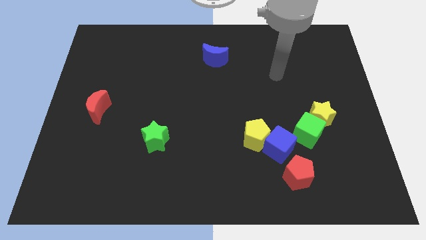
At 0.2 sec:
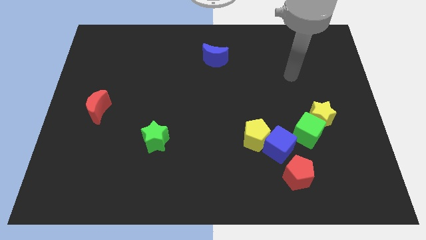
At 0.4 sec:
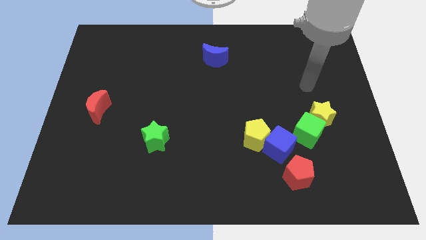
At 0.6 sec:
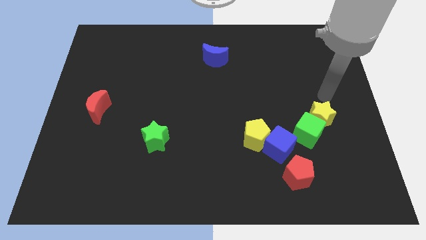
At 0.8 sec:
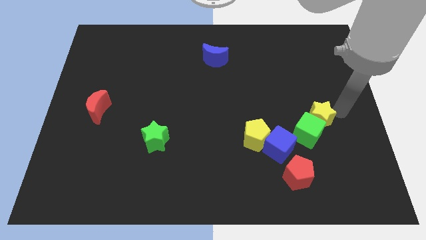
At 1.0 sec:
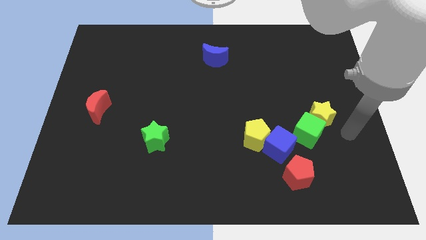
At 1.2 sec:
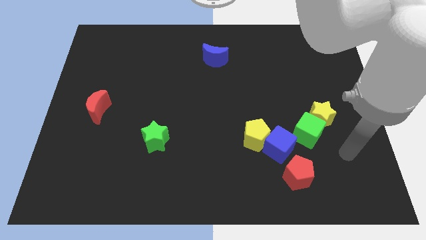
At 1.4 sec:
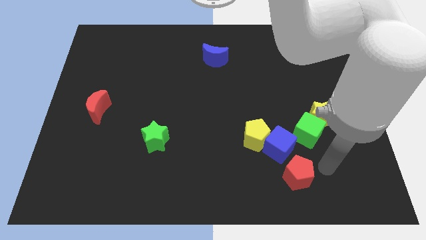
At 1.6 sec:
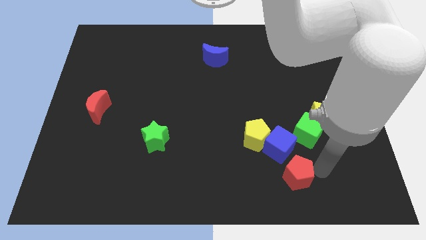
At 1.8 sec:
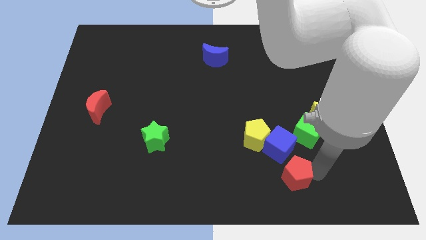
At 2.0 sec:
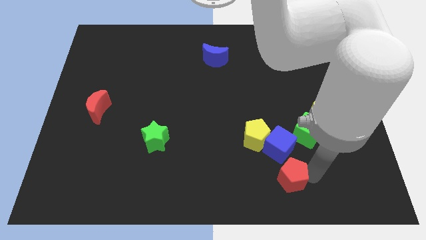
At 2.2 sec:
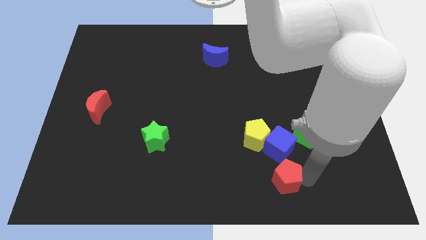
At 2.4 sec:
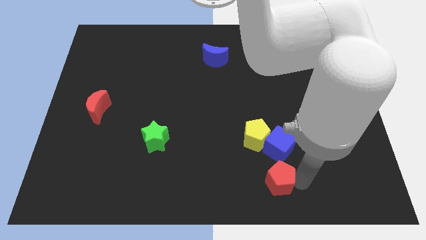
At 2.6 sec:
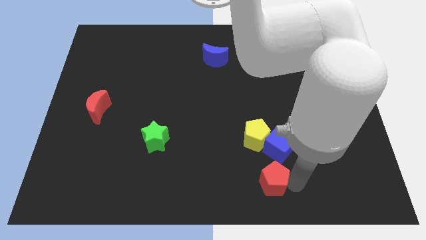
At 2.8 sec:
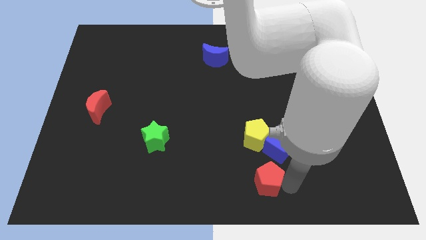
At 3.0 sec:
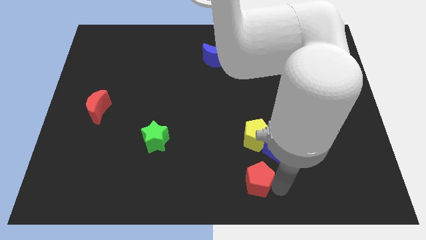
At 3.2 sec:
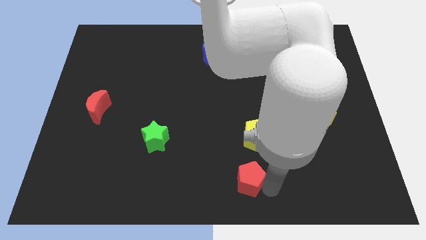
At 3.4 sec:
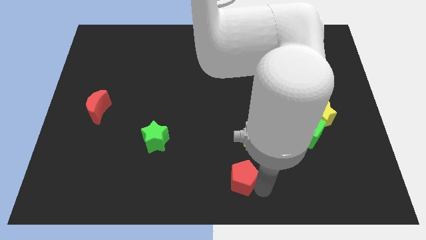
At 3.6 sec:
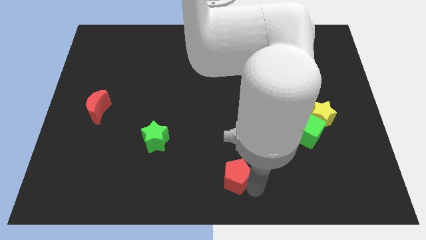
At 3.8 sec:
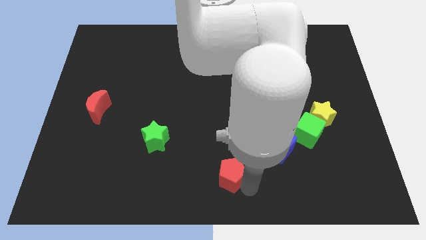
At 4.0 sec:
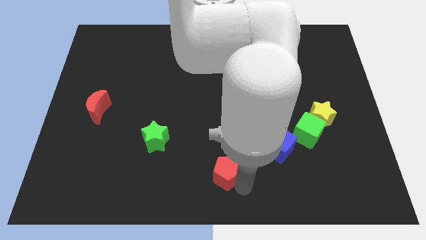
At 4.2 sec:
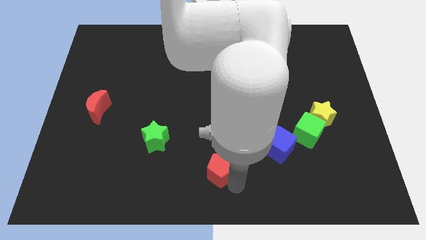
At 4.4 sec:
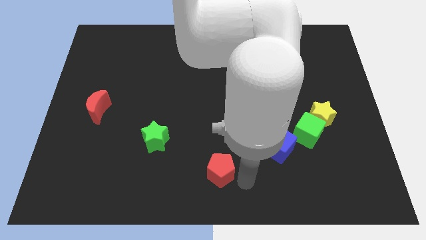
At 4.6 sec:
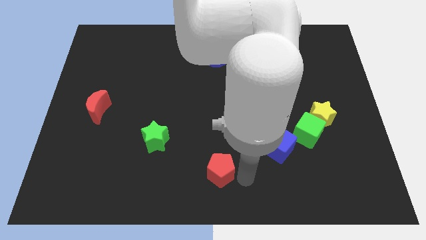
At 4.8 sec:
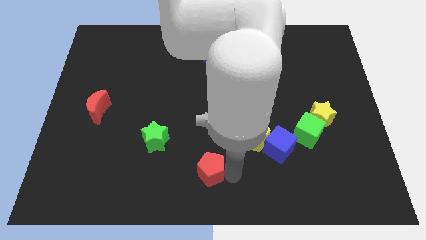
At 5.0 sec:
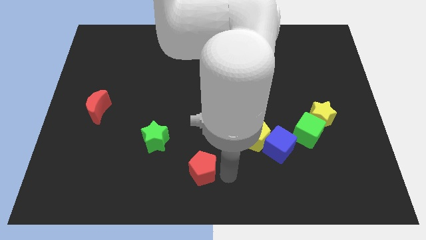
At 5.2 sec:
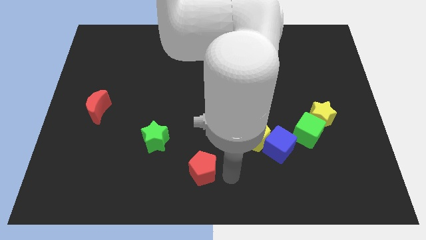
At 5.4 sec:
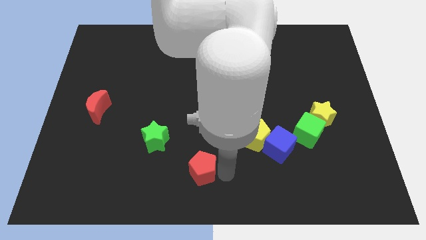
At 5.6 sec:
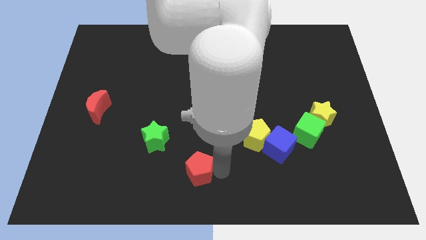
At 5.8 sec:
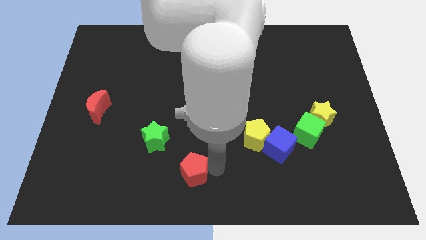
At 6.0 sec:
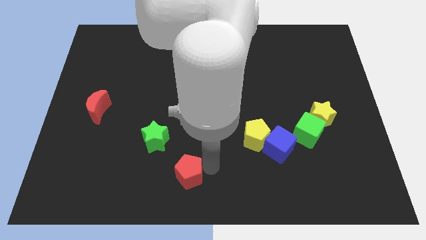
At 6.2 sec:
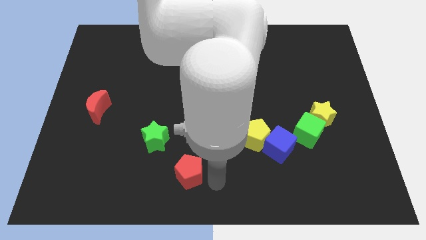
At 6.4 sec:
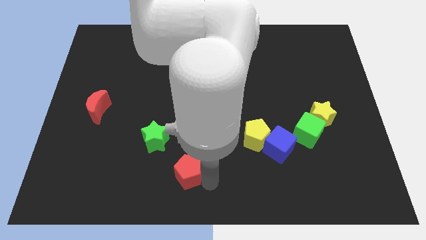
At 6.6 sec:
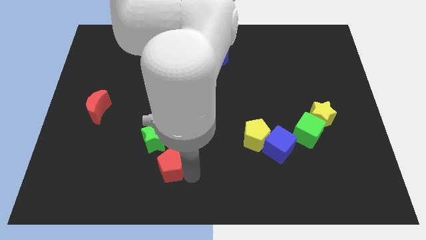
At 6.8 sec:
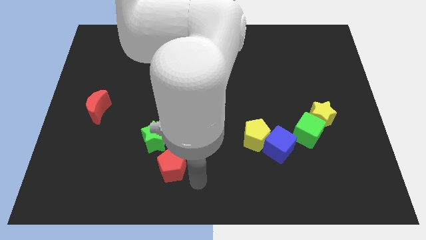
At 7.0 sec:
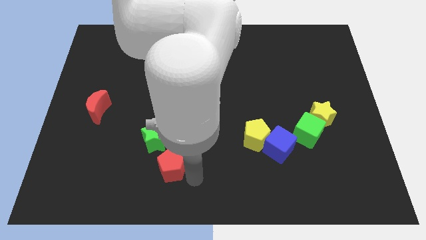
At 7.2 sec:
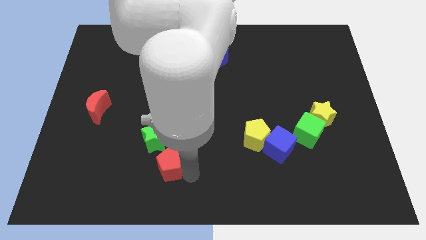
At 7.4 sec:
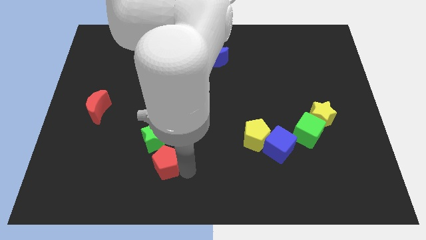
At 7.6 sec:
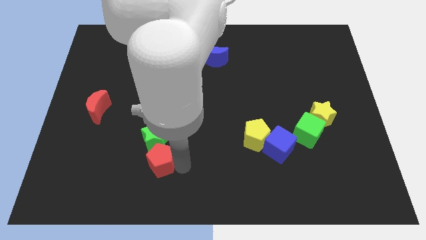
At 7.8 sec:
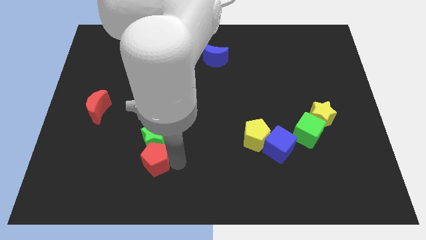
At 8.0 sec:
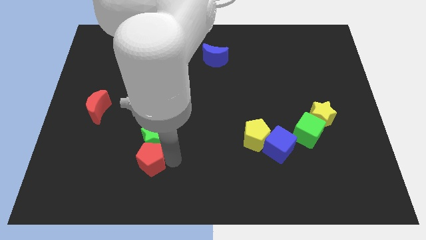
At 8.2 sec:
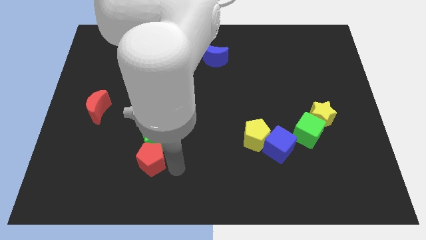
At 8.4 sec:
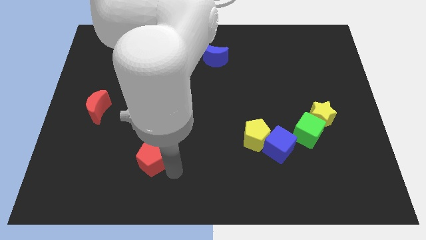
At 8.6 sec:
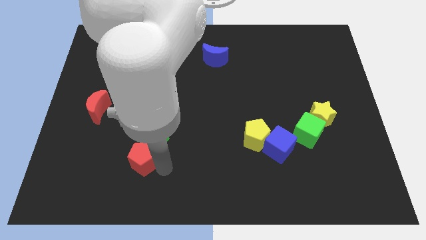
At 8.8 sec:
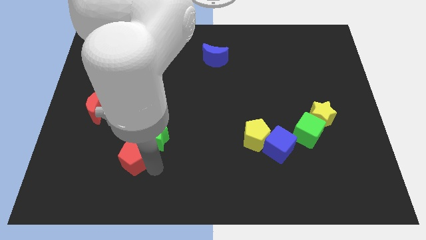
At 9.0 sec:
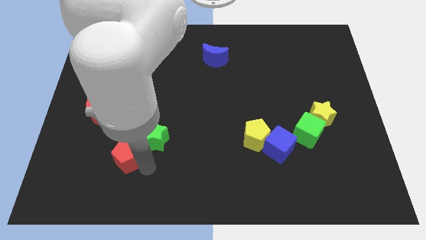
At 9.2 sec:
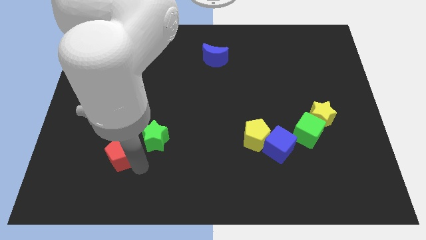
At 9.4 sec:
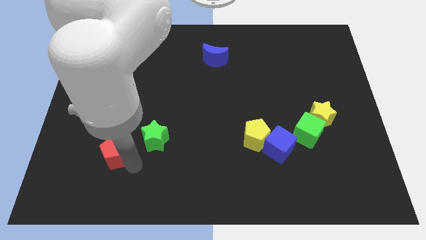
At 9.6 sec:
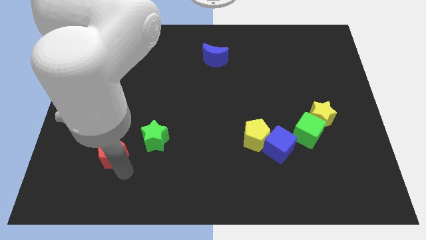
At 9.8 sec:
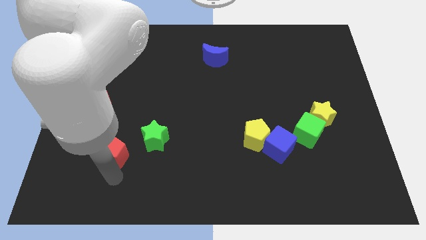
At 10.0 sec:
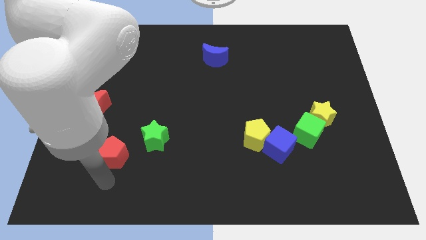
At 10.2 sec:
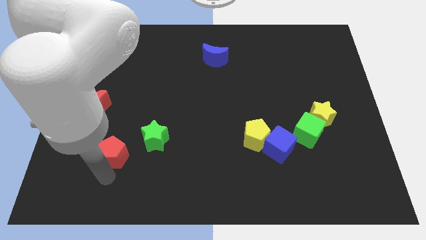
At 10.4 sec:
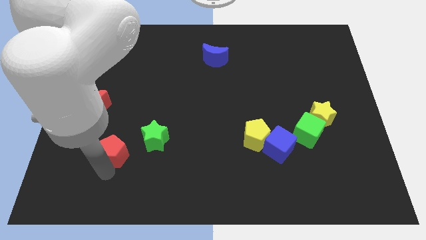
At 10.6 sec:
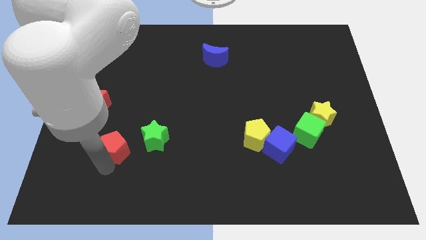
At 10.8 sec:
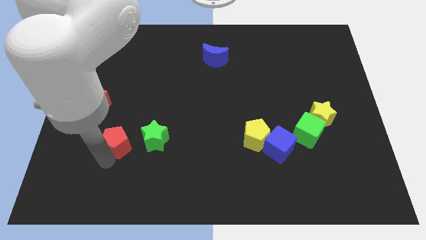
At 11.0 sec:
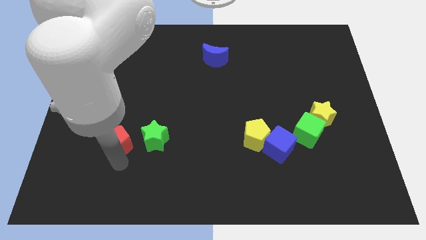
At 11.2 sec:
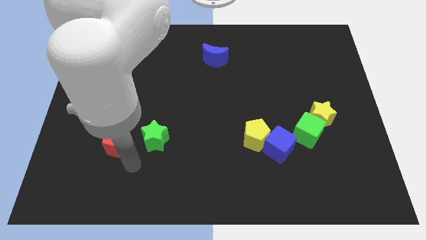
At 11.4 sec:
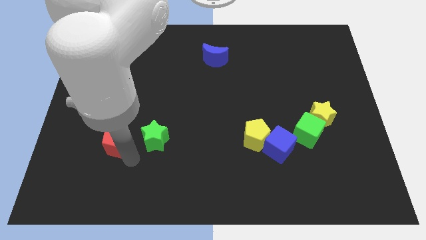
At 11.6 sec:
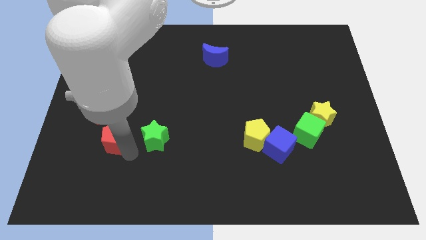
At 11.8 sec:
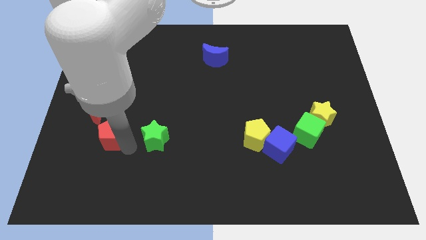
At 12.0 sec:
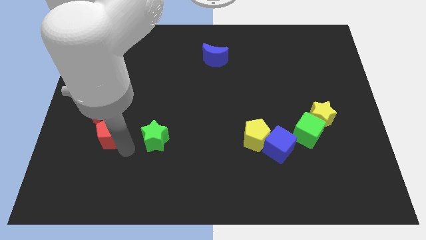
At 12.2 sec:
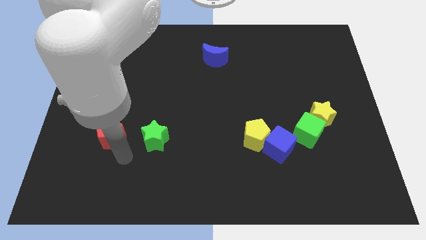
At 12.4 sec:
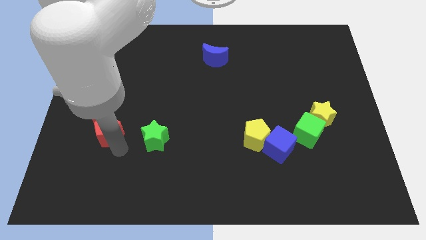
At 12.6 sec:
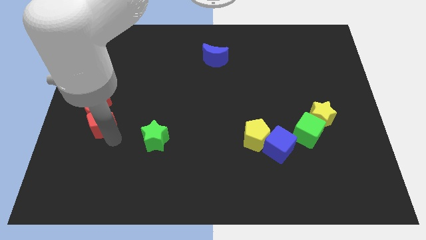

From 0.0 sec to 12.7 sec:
put the red pentagon next to the red moon

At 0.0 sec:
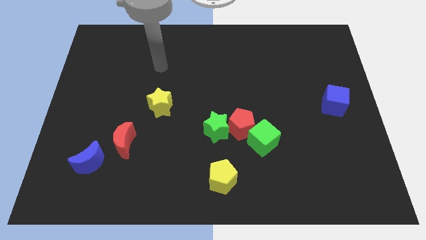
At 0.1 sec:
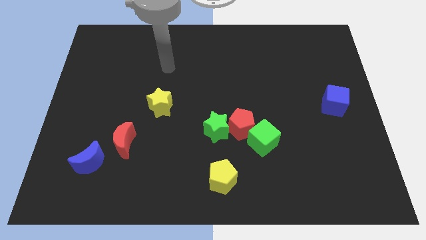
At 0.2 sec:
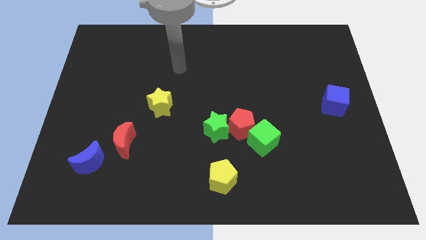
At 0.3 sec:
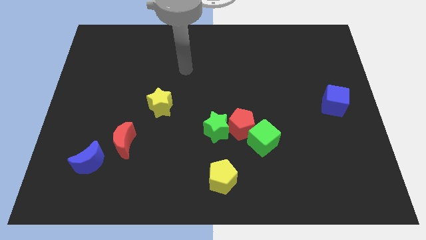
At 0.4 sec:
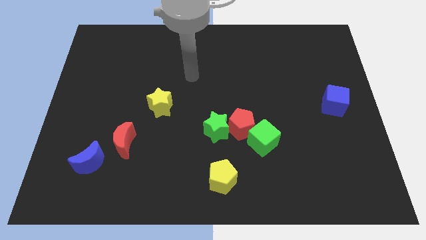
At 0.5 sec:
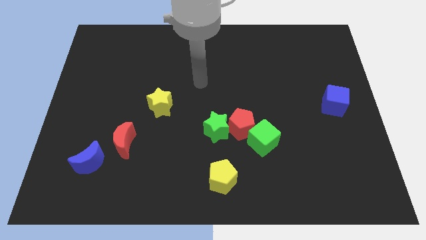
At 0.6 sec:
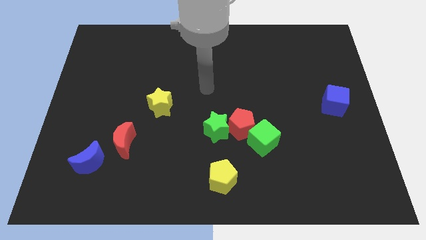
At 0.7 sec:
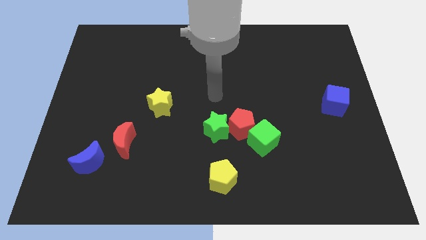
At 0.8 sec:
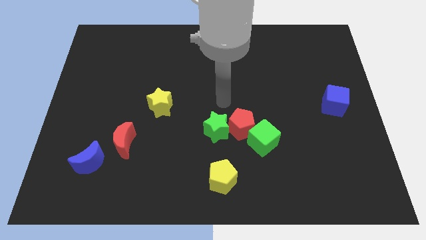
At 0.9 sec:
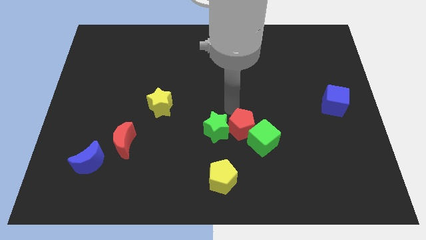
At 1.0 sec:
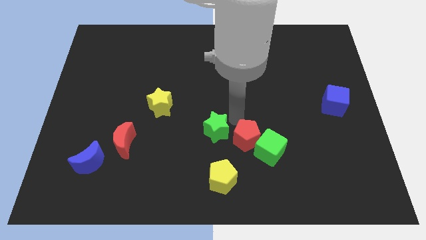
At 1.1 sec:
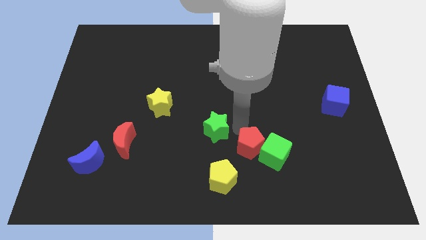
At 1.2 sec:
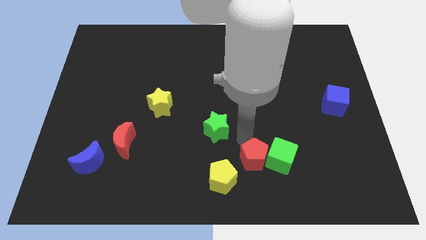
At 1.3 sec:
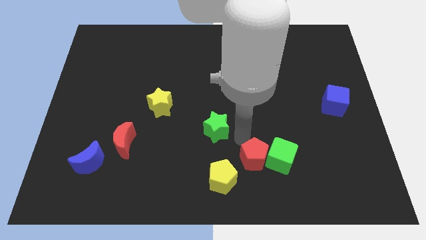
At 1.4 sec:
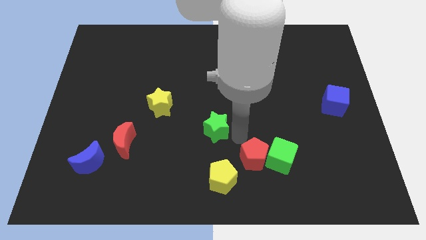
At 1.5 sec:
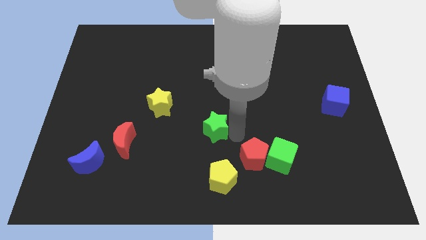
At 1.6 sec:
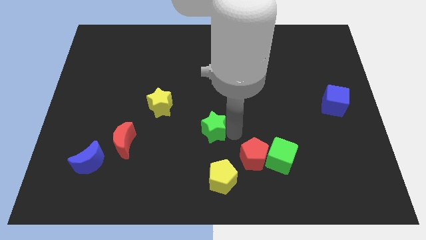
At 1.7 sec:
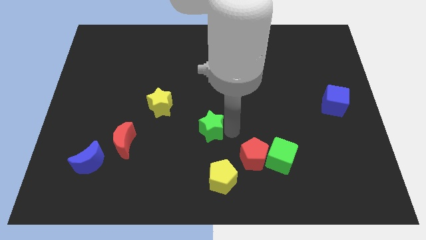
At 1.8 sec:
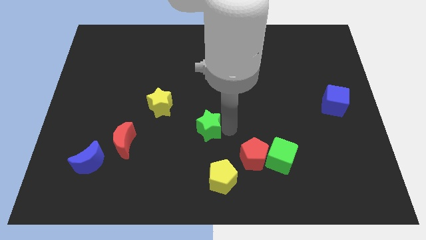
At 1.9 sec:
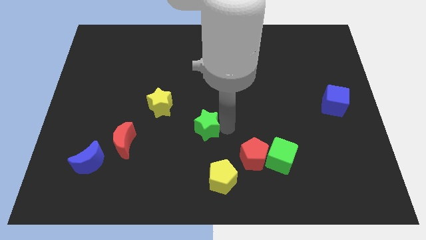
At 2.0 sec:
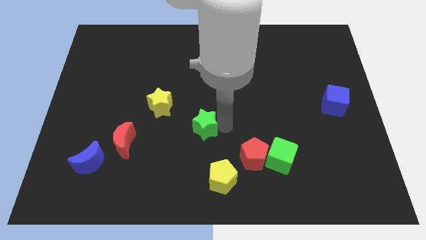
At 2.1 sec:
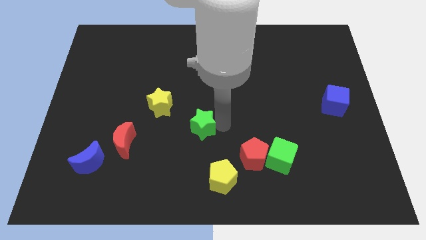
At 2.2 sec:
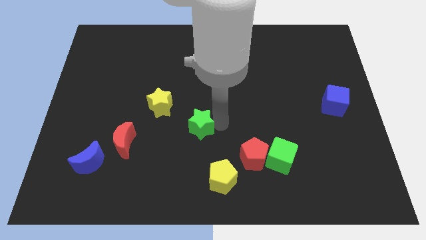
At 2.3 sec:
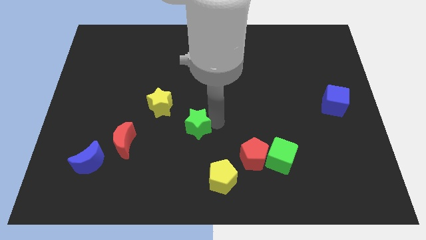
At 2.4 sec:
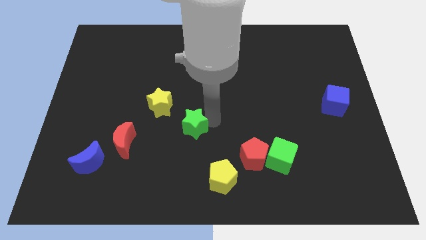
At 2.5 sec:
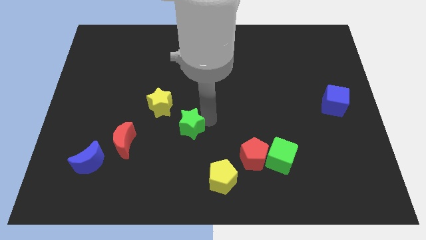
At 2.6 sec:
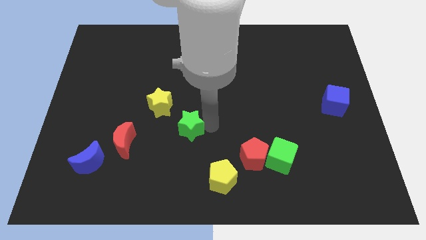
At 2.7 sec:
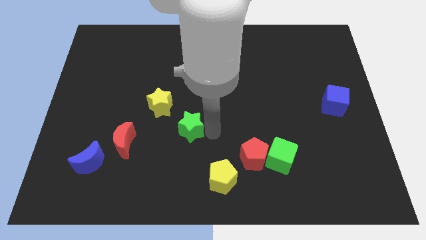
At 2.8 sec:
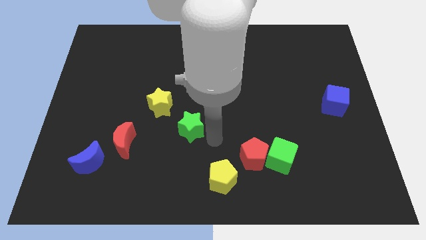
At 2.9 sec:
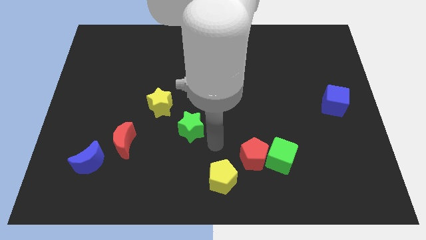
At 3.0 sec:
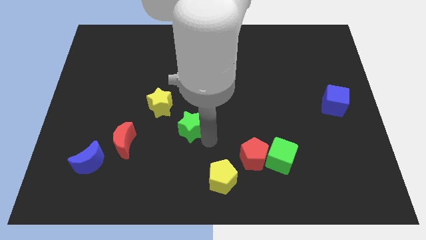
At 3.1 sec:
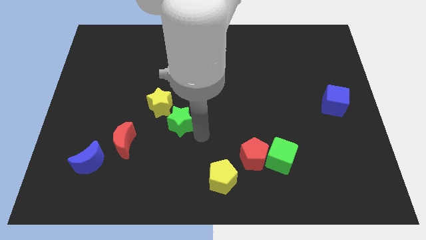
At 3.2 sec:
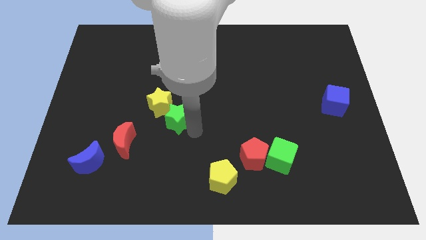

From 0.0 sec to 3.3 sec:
put the green star close to the yellow star
